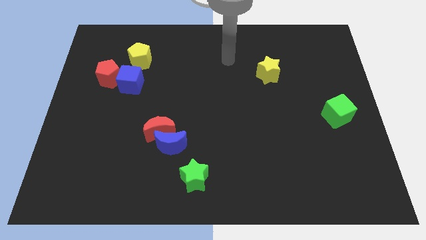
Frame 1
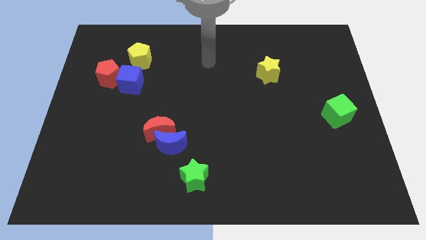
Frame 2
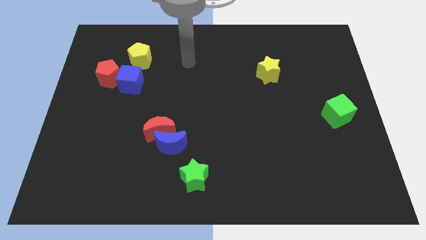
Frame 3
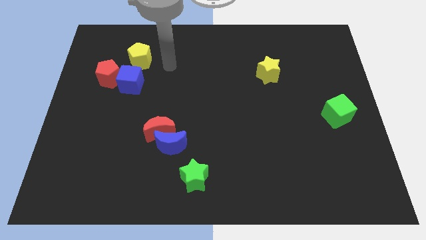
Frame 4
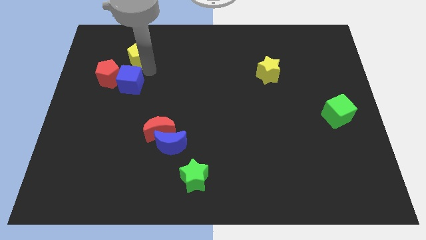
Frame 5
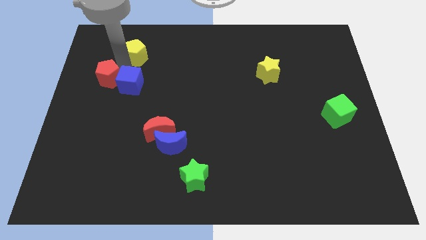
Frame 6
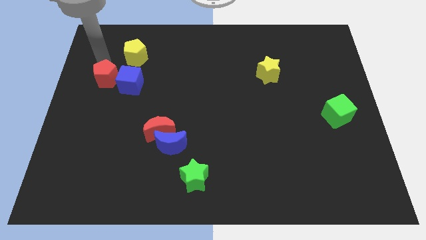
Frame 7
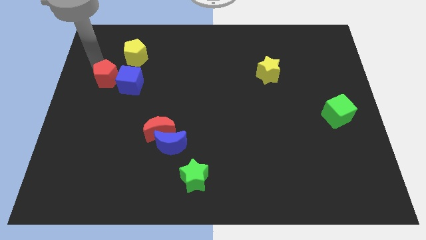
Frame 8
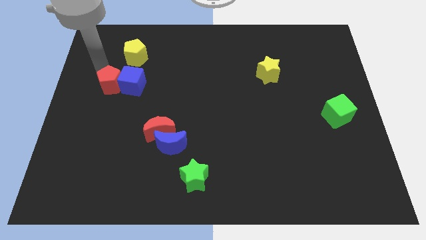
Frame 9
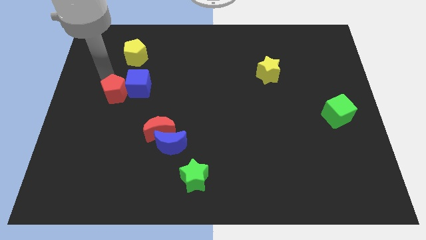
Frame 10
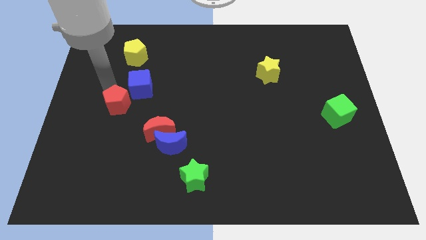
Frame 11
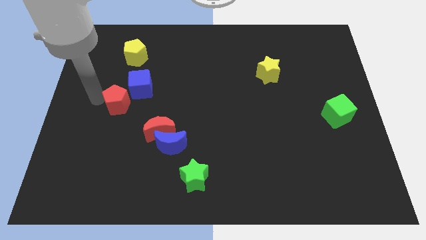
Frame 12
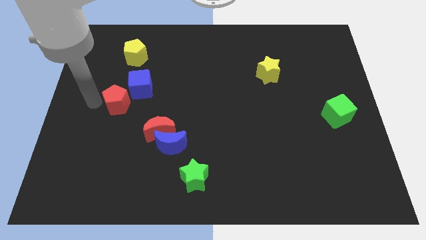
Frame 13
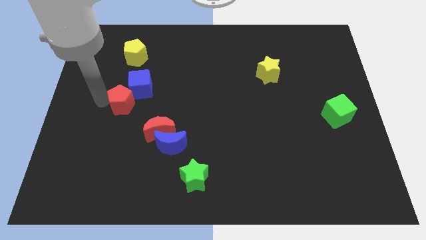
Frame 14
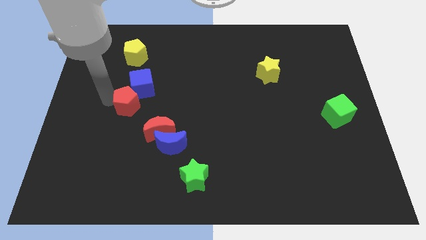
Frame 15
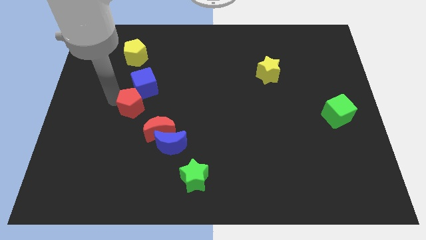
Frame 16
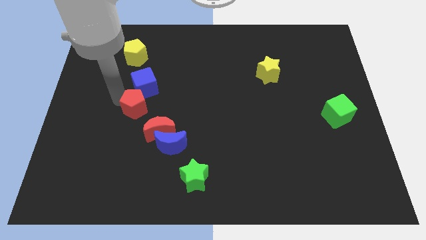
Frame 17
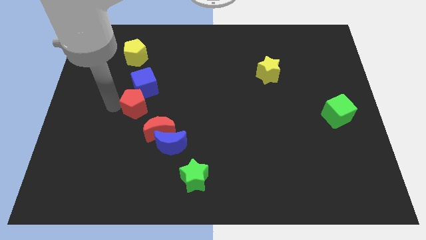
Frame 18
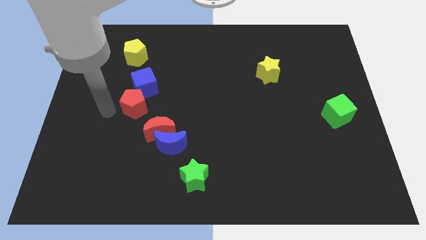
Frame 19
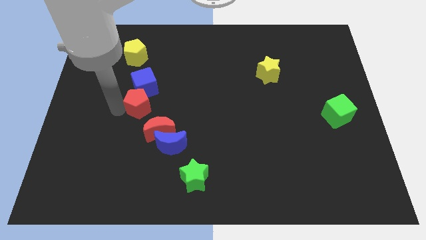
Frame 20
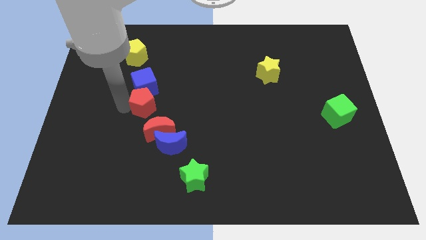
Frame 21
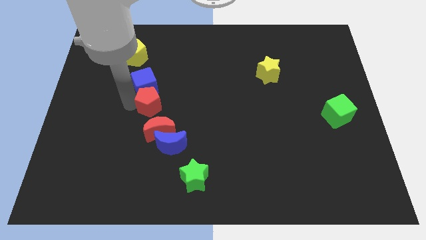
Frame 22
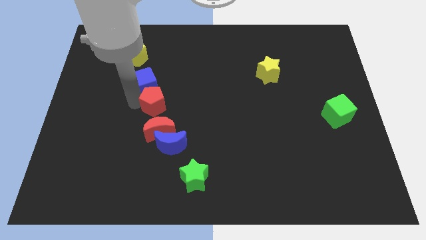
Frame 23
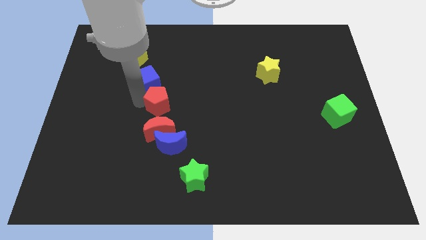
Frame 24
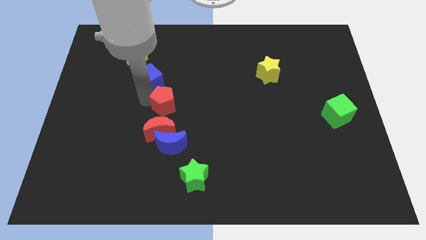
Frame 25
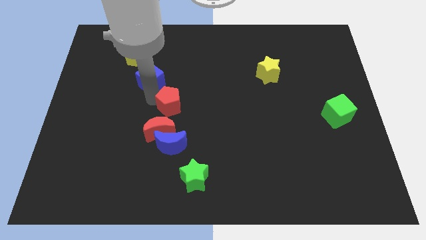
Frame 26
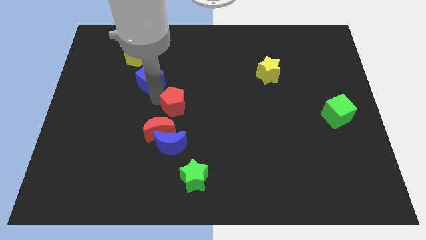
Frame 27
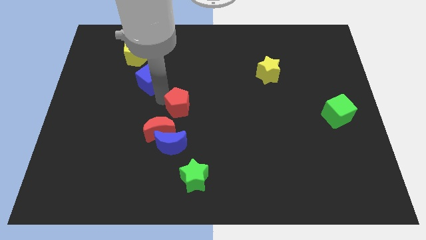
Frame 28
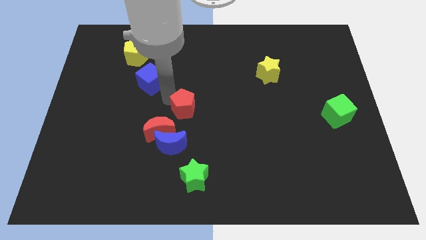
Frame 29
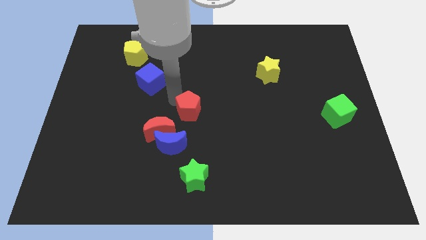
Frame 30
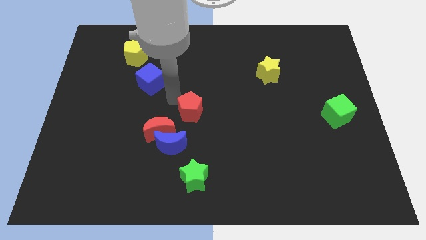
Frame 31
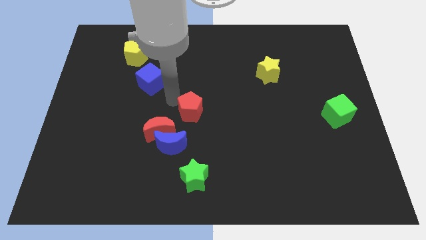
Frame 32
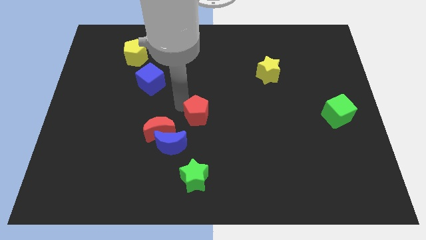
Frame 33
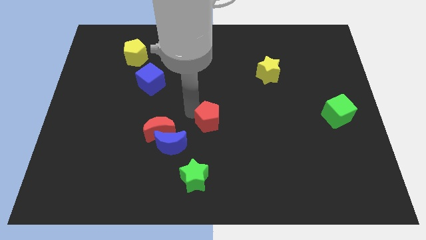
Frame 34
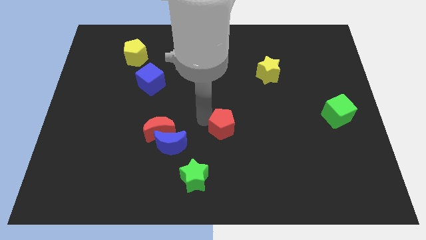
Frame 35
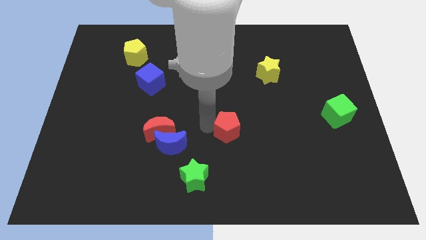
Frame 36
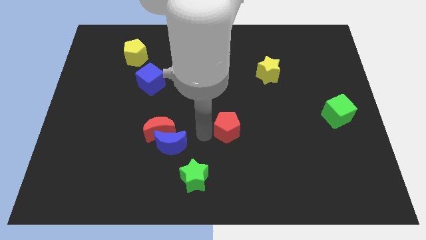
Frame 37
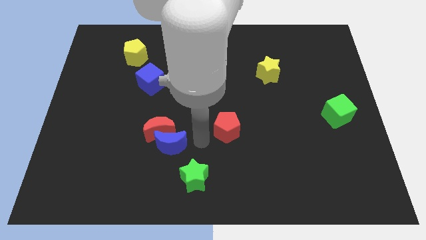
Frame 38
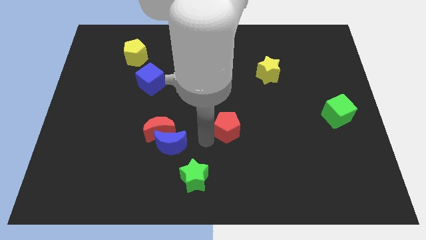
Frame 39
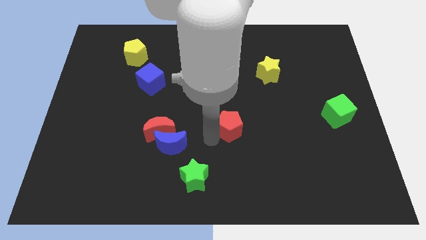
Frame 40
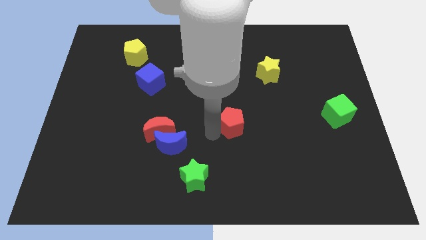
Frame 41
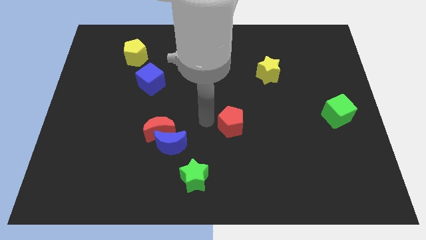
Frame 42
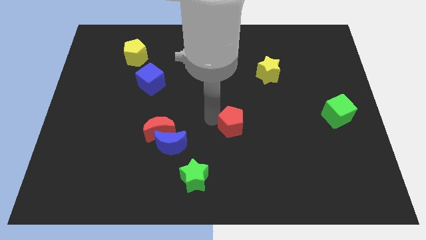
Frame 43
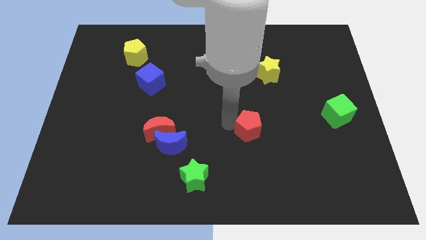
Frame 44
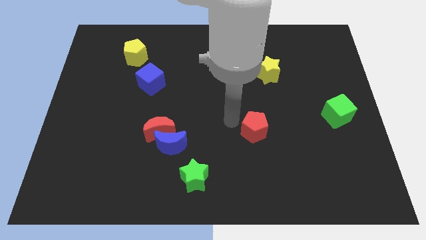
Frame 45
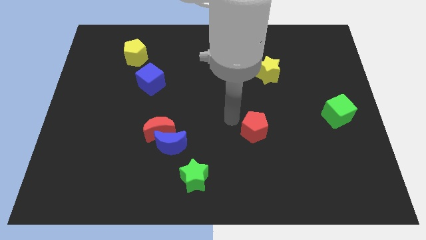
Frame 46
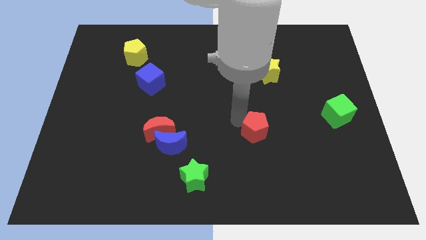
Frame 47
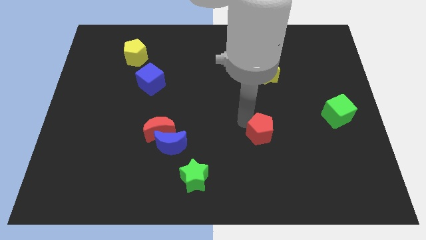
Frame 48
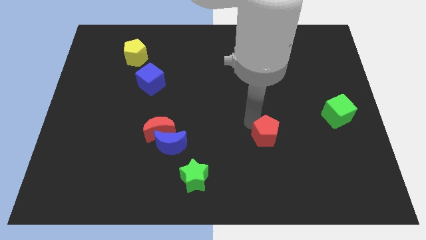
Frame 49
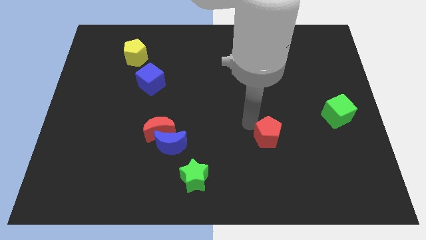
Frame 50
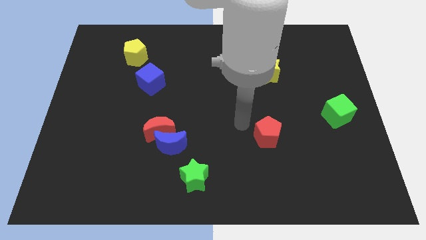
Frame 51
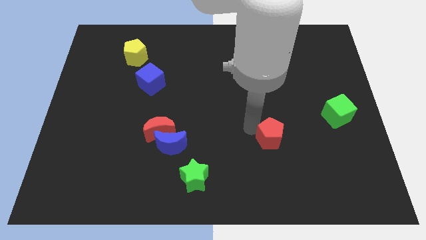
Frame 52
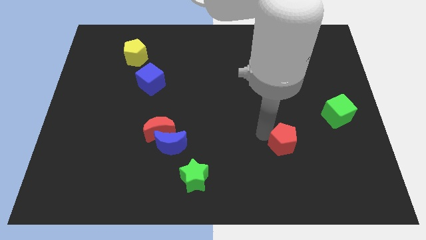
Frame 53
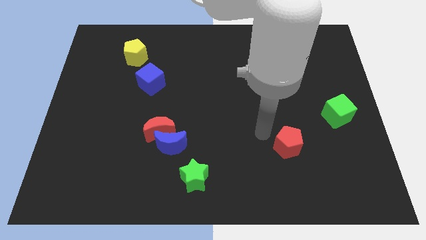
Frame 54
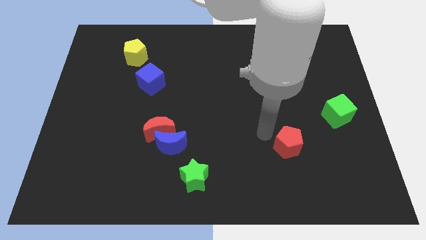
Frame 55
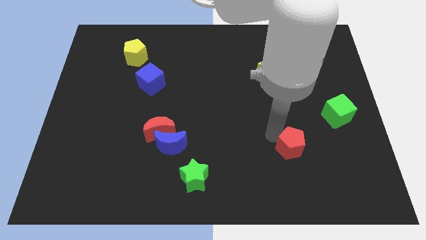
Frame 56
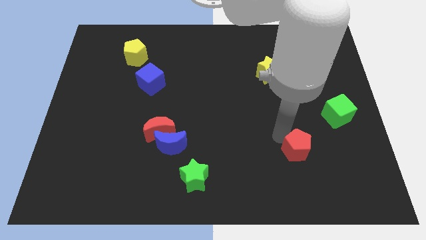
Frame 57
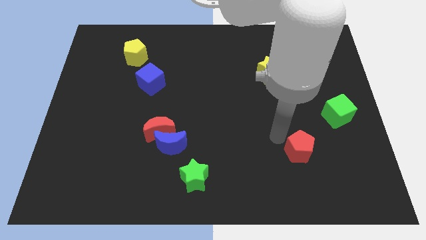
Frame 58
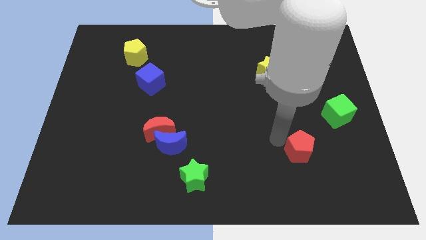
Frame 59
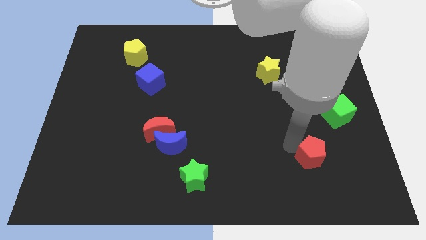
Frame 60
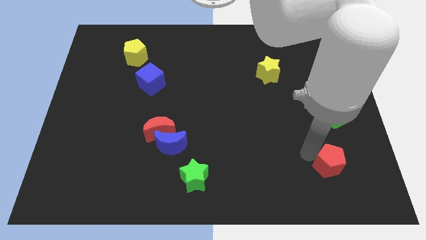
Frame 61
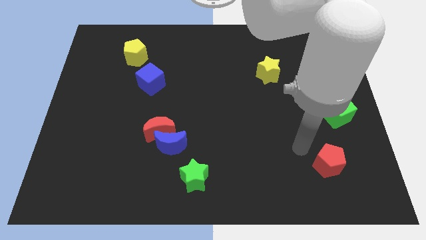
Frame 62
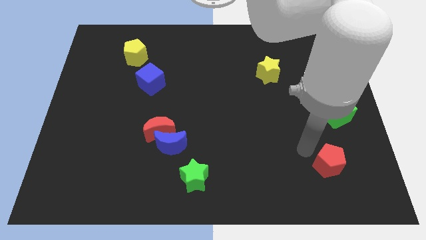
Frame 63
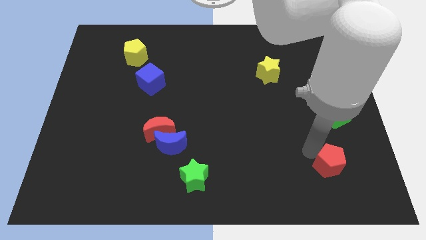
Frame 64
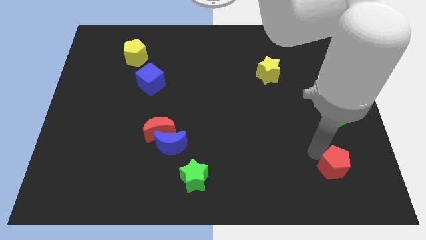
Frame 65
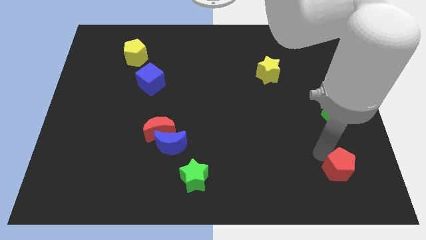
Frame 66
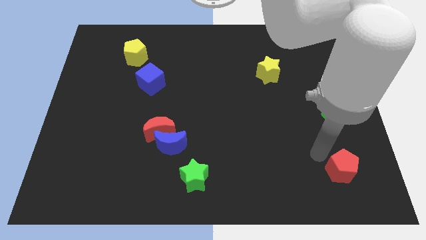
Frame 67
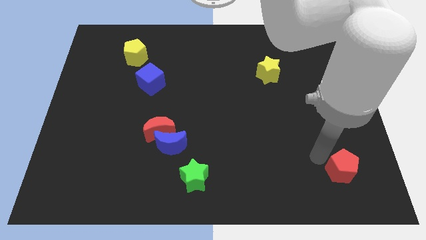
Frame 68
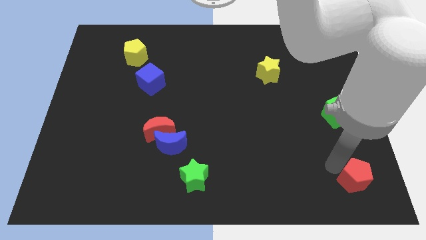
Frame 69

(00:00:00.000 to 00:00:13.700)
push the red pentagon to the bottom right corner

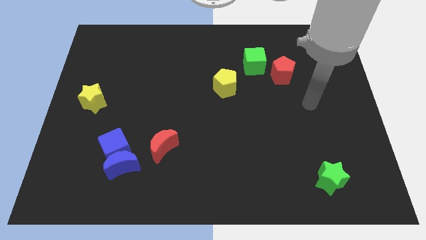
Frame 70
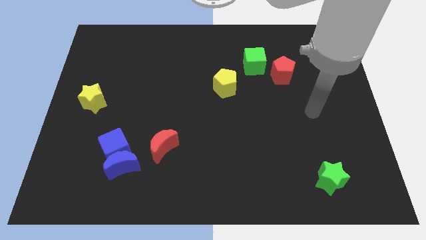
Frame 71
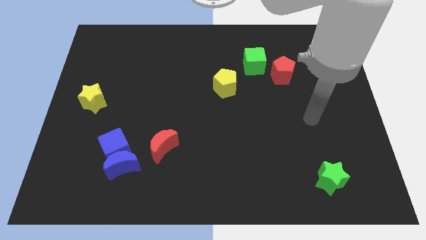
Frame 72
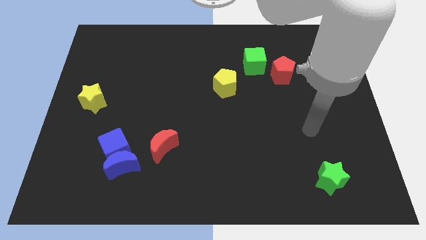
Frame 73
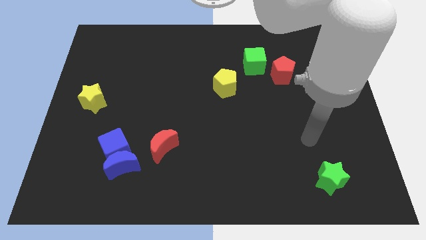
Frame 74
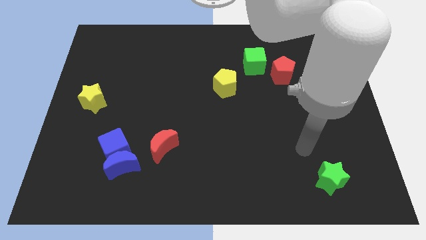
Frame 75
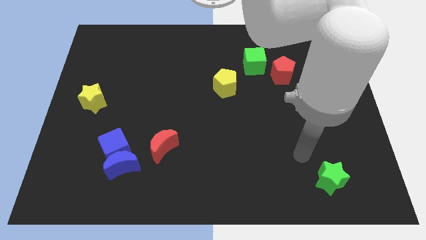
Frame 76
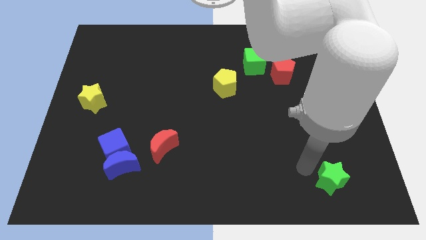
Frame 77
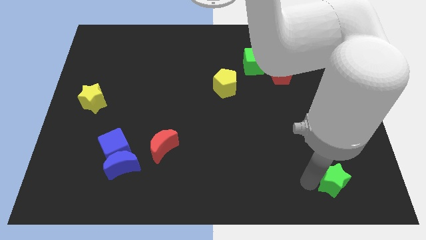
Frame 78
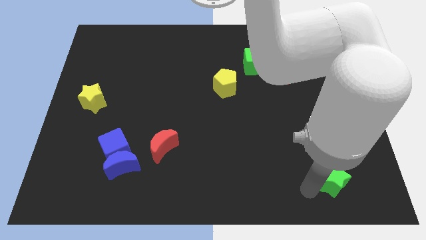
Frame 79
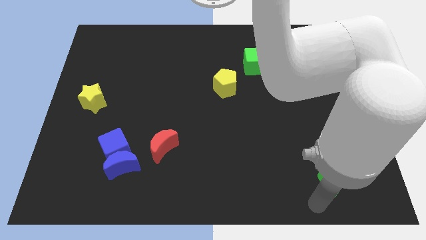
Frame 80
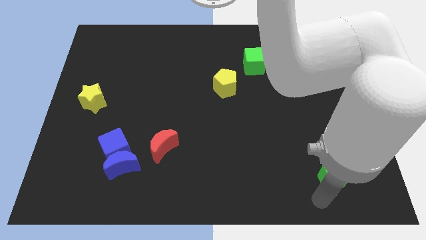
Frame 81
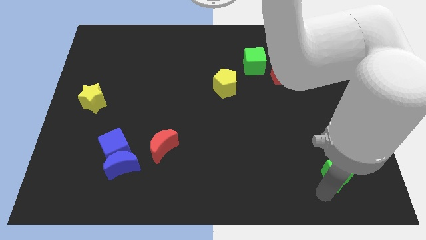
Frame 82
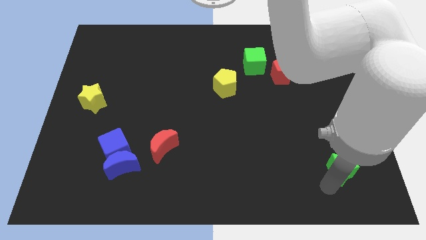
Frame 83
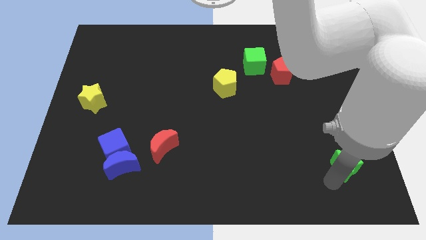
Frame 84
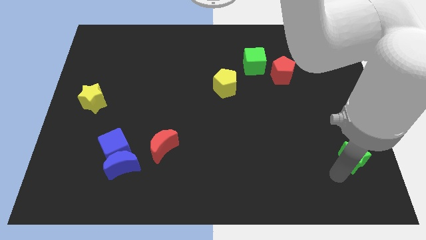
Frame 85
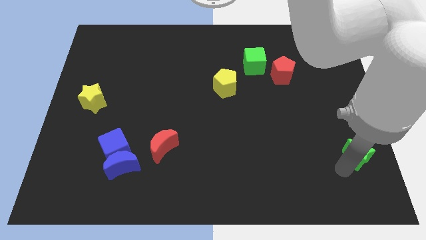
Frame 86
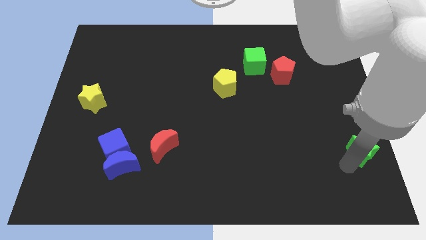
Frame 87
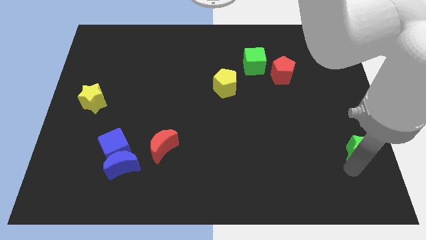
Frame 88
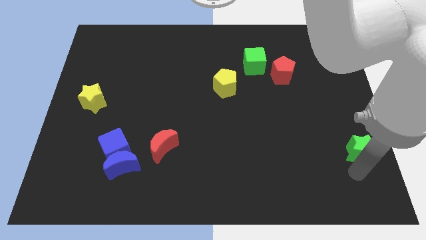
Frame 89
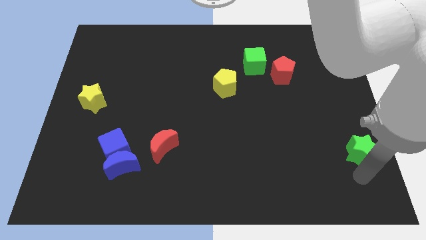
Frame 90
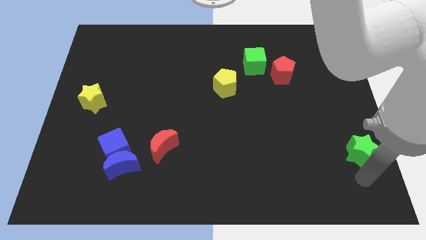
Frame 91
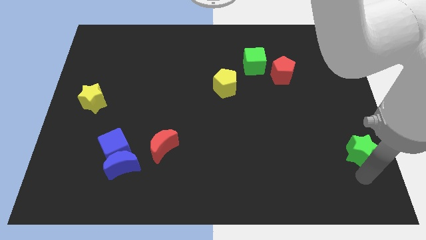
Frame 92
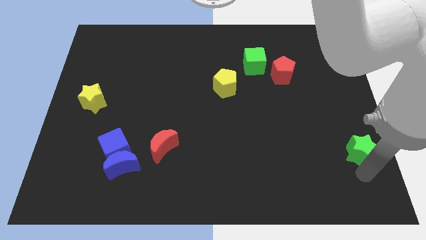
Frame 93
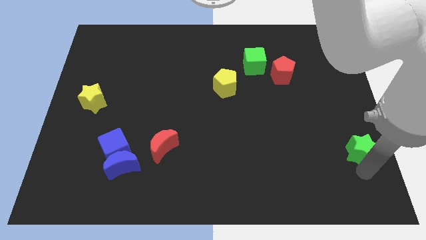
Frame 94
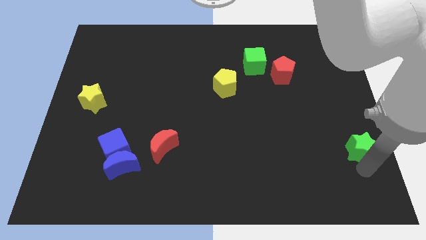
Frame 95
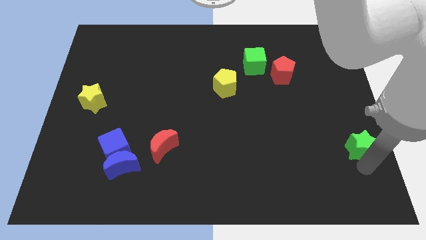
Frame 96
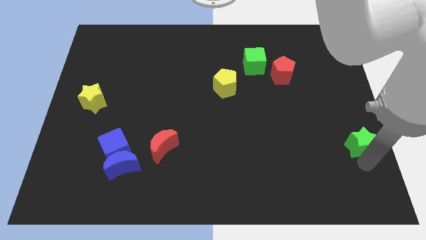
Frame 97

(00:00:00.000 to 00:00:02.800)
push the green star to the right side of the board
